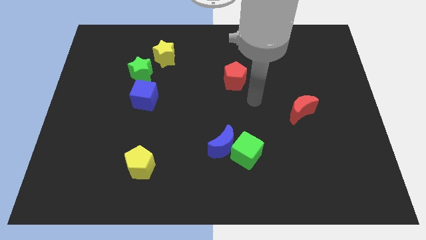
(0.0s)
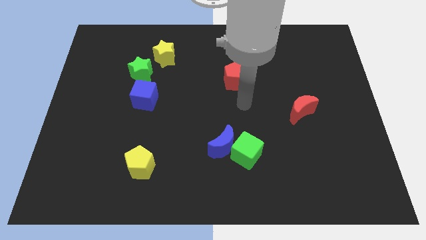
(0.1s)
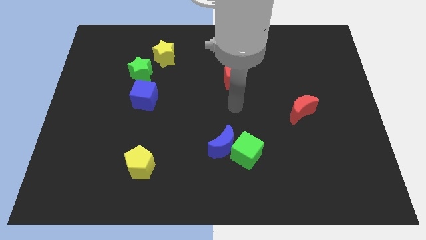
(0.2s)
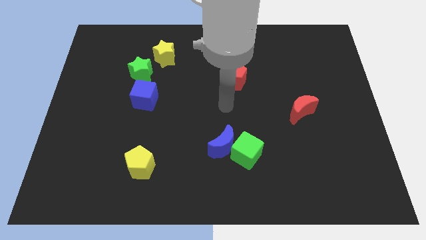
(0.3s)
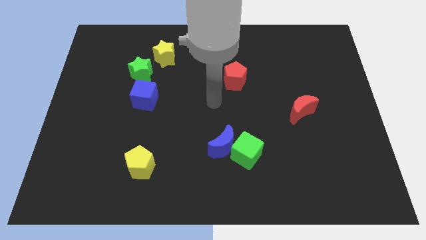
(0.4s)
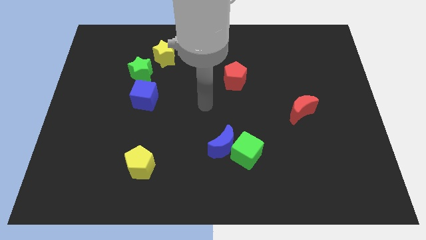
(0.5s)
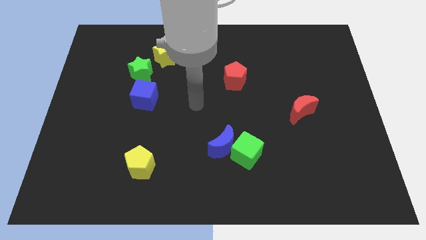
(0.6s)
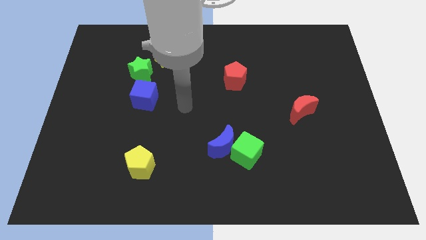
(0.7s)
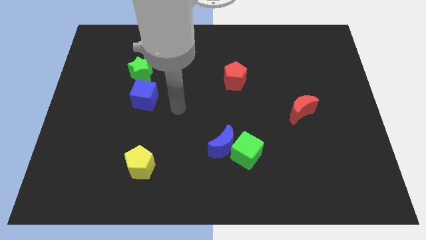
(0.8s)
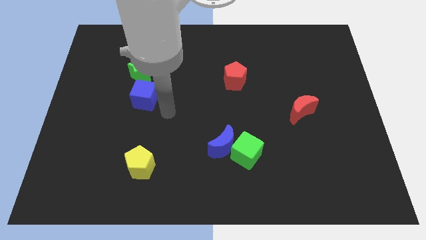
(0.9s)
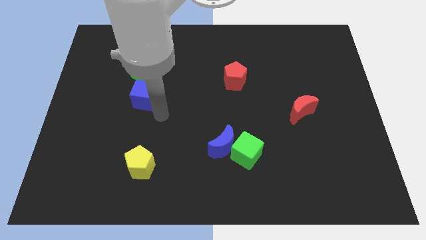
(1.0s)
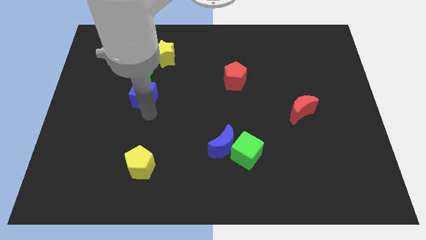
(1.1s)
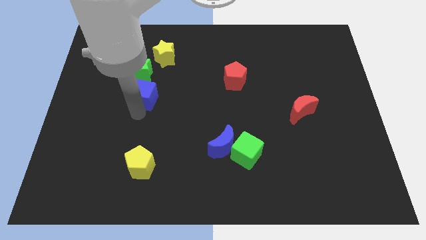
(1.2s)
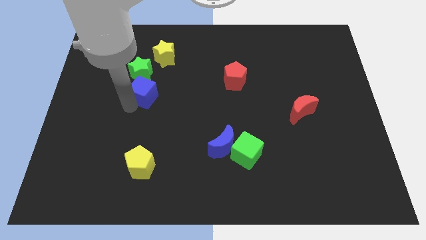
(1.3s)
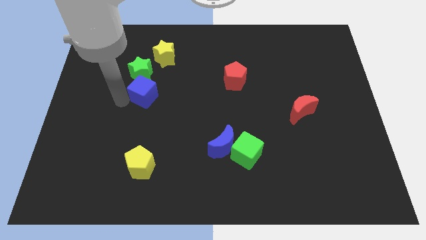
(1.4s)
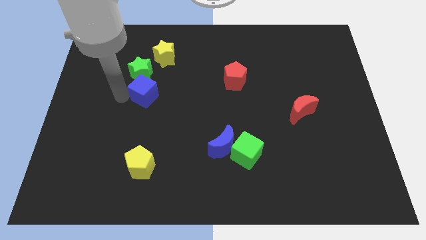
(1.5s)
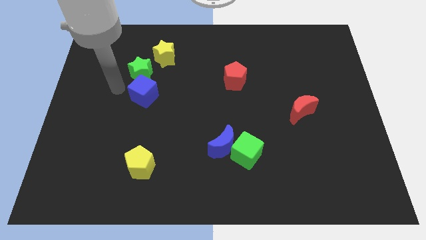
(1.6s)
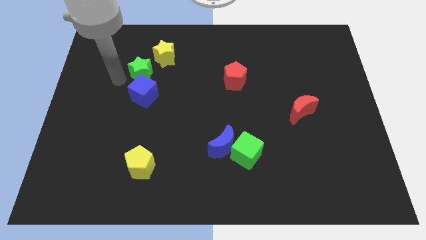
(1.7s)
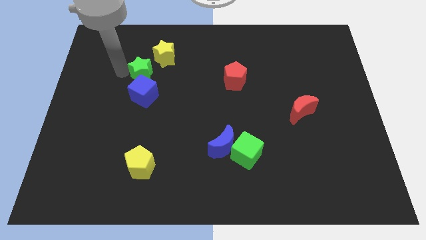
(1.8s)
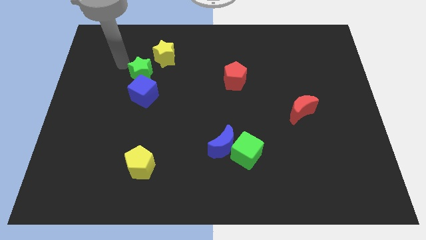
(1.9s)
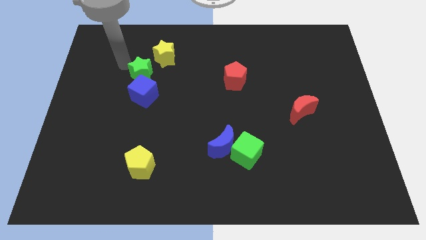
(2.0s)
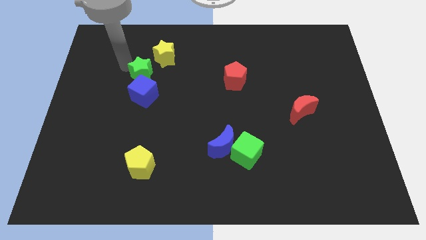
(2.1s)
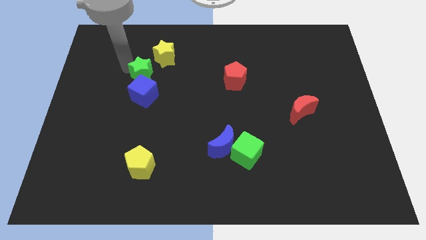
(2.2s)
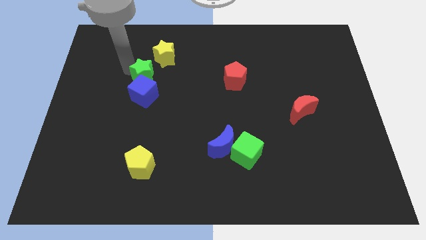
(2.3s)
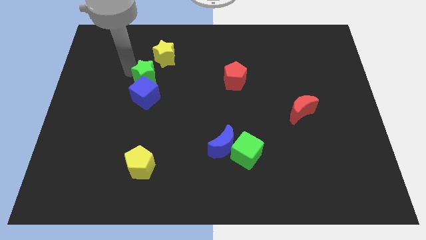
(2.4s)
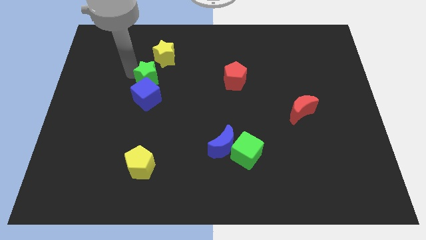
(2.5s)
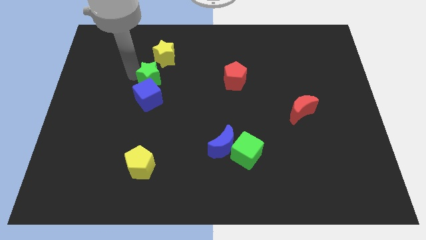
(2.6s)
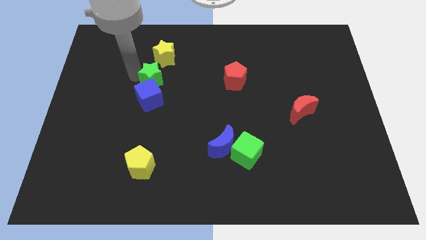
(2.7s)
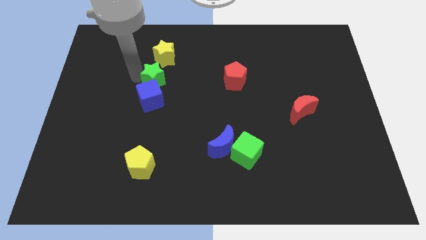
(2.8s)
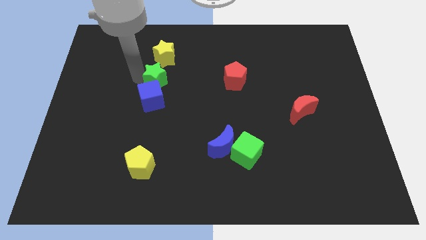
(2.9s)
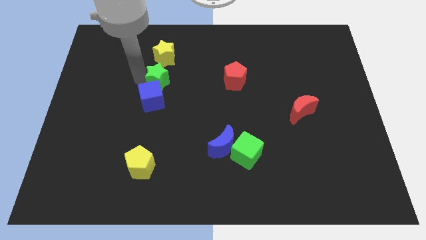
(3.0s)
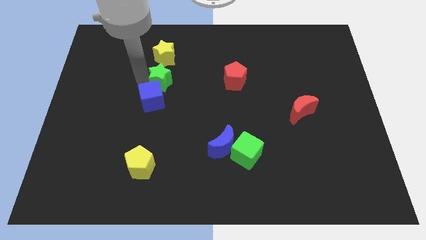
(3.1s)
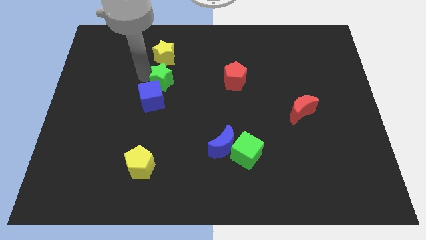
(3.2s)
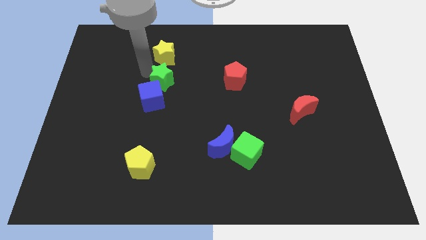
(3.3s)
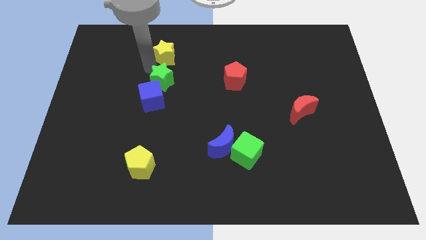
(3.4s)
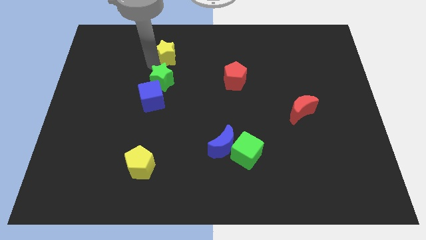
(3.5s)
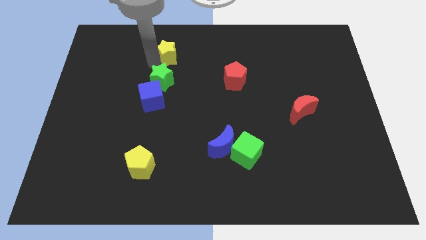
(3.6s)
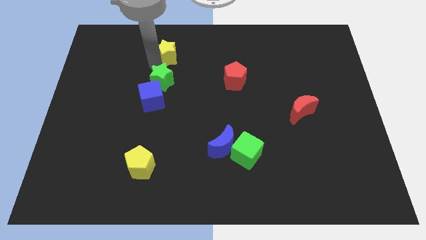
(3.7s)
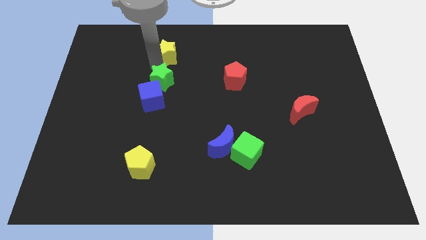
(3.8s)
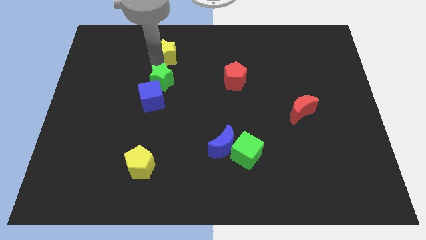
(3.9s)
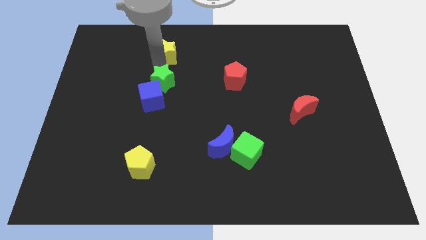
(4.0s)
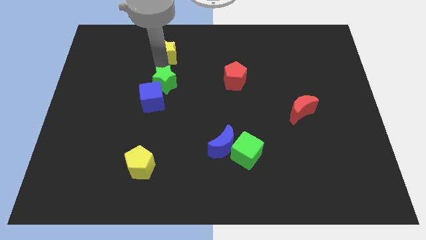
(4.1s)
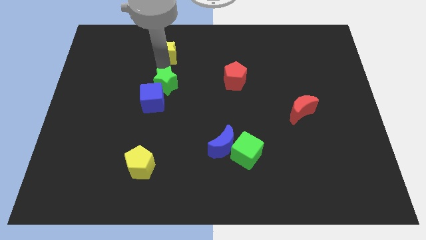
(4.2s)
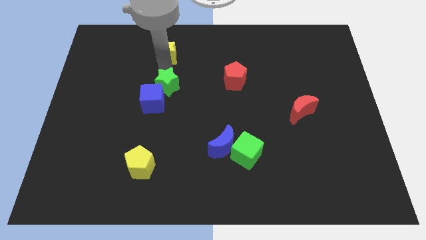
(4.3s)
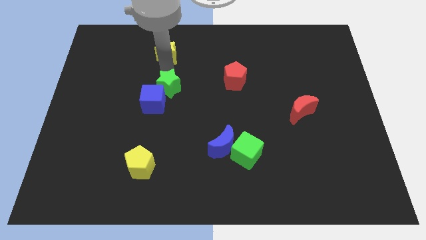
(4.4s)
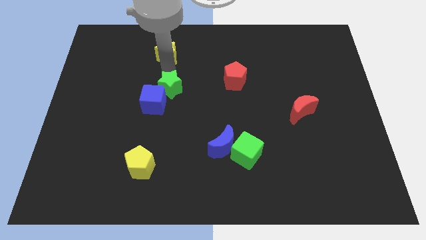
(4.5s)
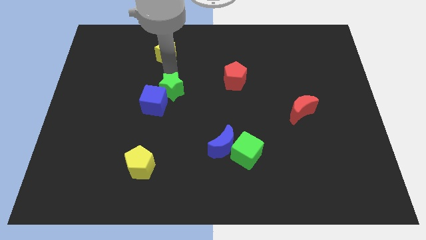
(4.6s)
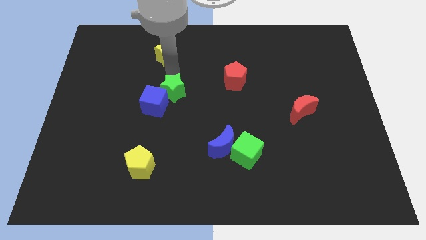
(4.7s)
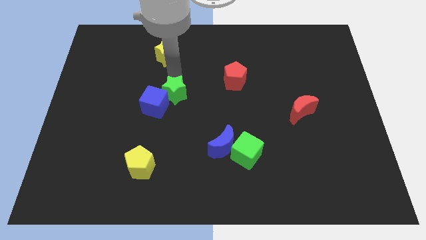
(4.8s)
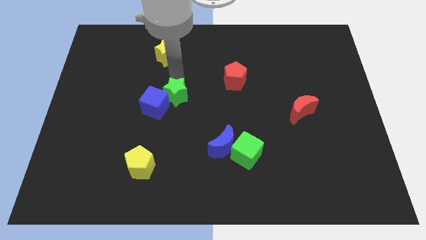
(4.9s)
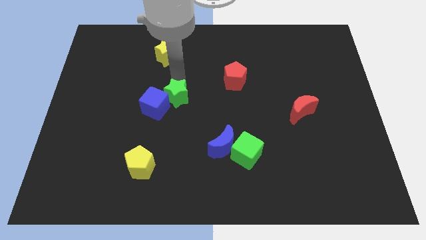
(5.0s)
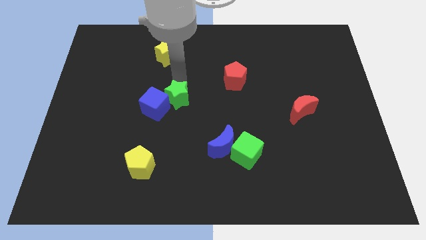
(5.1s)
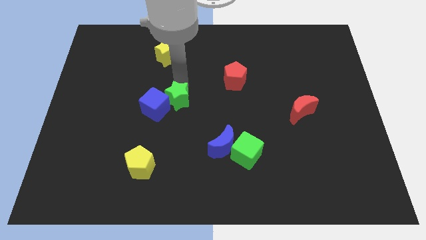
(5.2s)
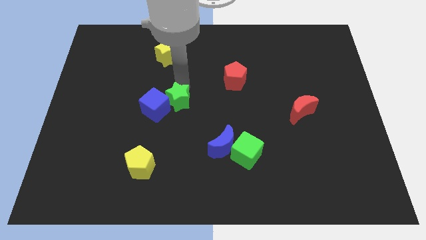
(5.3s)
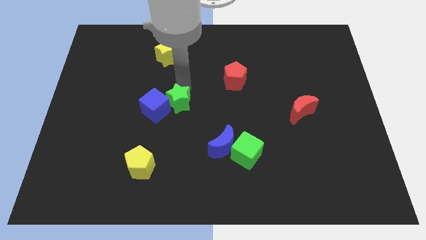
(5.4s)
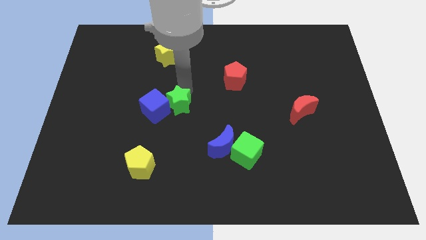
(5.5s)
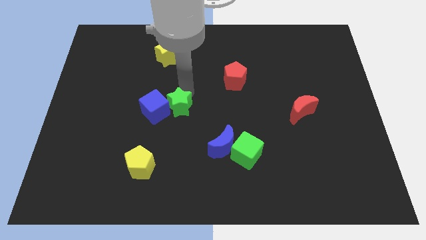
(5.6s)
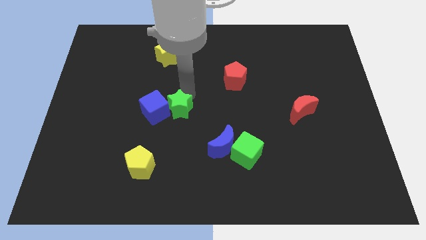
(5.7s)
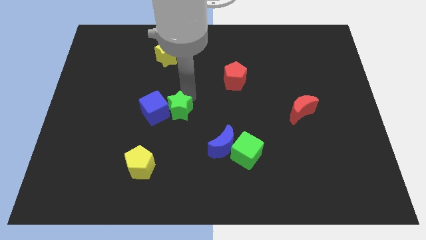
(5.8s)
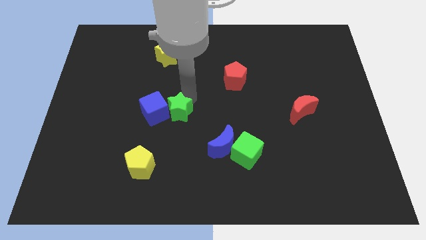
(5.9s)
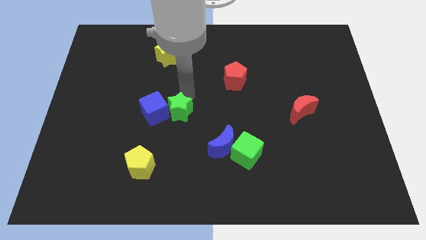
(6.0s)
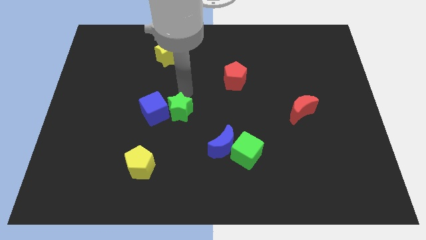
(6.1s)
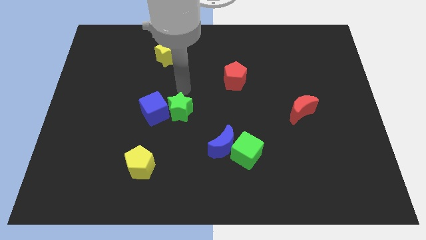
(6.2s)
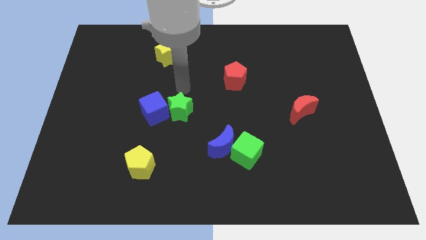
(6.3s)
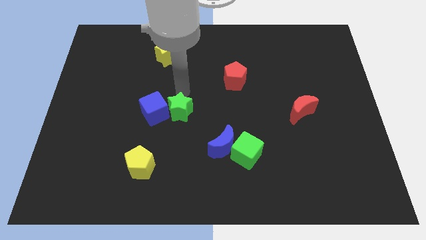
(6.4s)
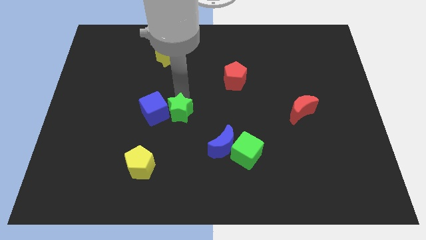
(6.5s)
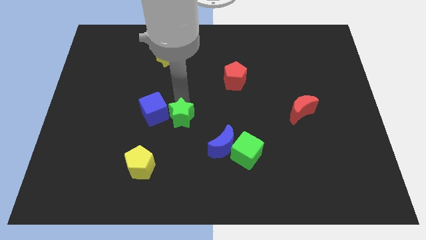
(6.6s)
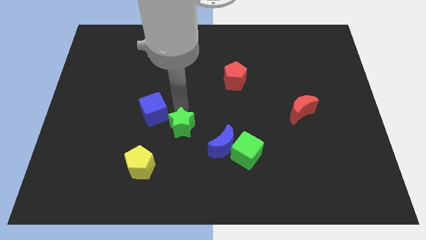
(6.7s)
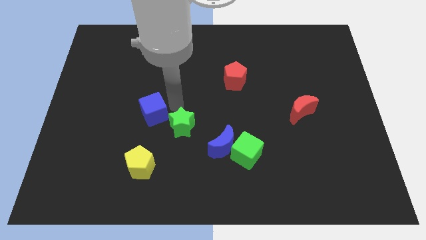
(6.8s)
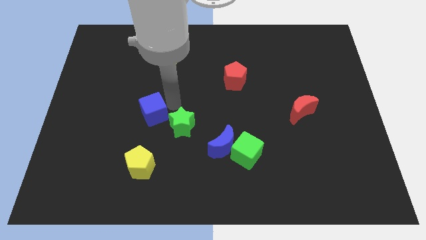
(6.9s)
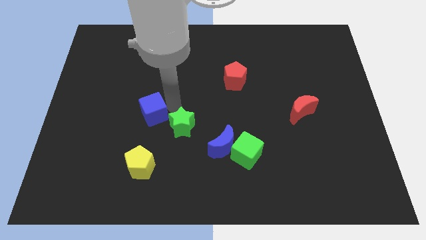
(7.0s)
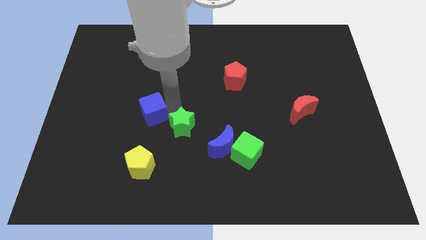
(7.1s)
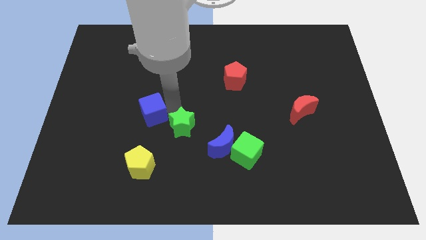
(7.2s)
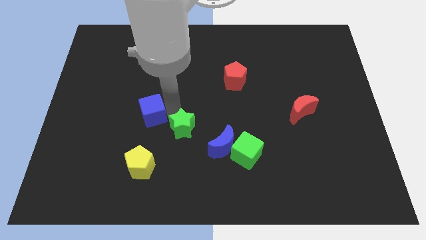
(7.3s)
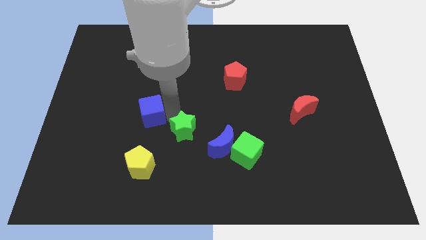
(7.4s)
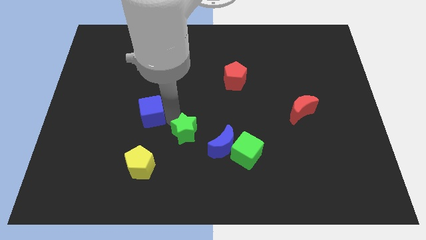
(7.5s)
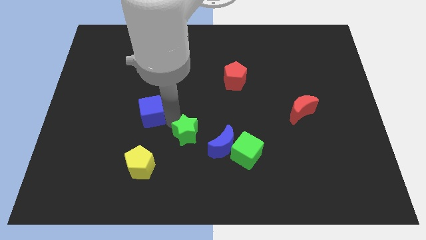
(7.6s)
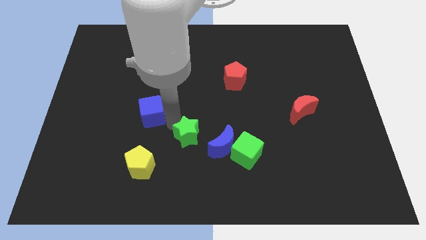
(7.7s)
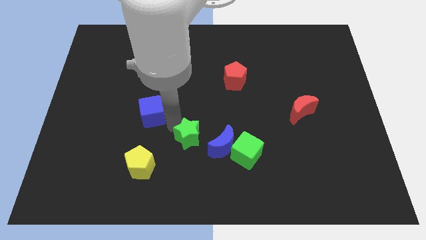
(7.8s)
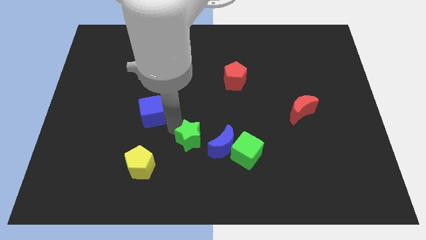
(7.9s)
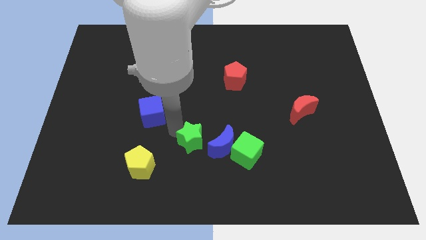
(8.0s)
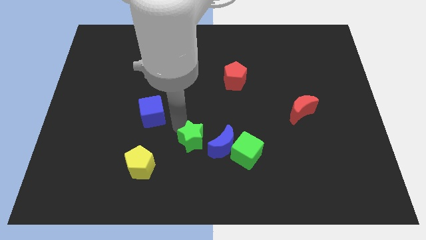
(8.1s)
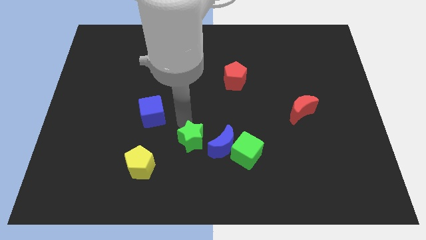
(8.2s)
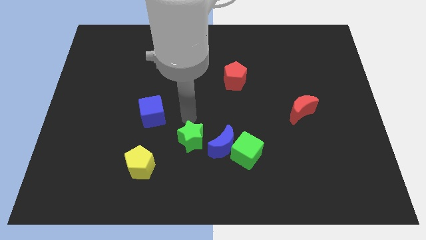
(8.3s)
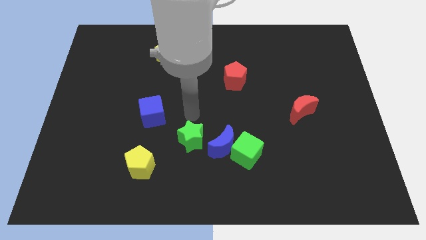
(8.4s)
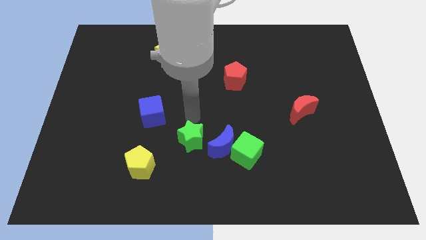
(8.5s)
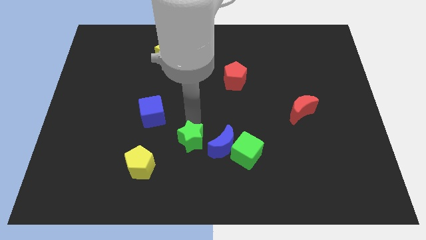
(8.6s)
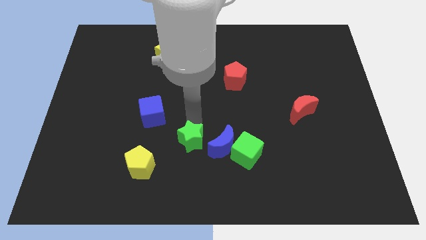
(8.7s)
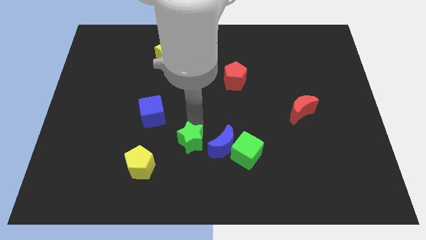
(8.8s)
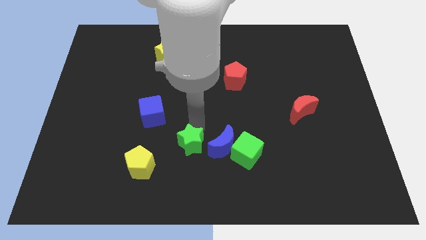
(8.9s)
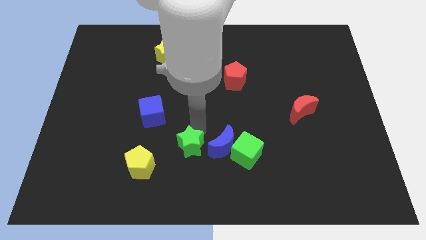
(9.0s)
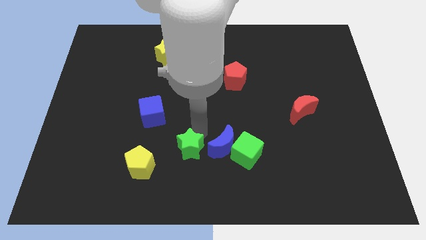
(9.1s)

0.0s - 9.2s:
slide the green star right of the yellow pentagon
